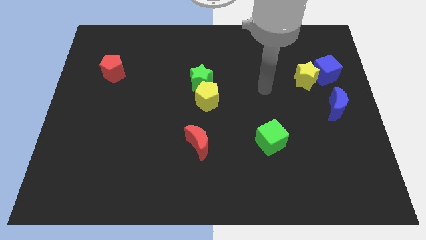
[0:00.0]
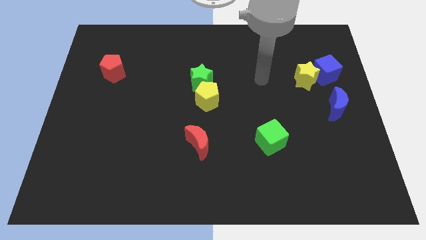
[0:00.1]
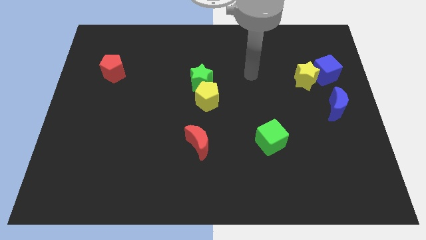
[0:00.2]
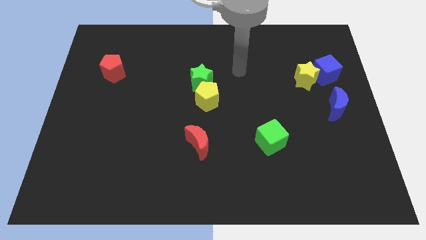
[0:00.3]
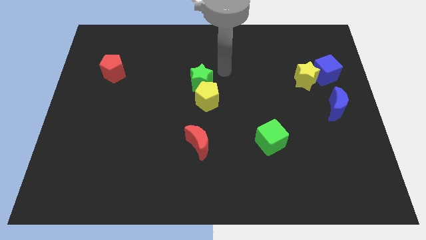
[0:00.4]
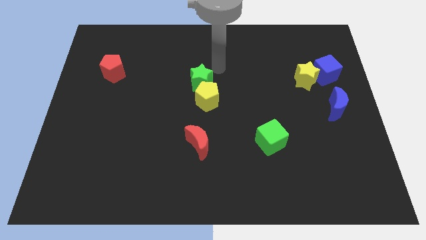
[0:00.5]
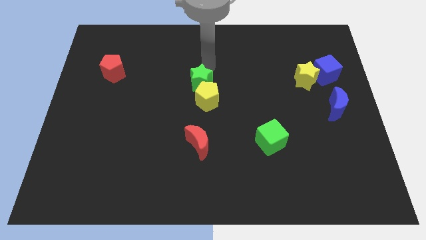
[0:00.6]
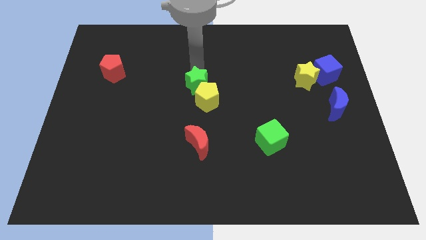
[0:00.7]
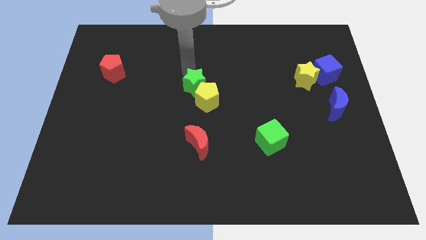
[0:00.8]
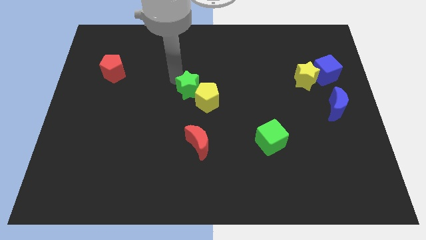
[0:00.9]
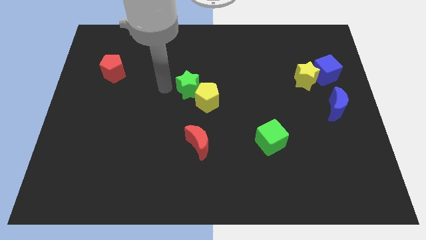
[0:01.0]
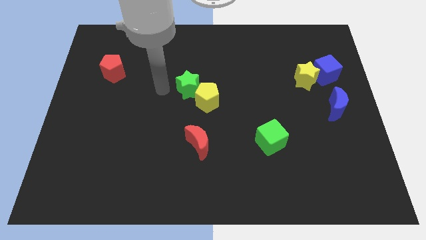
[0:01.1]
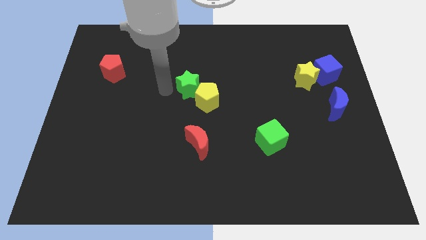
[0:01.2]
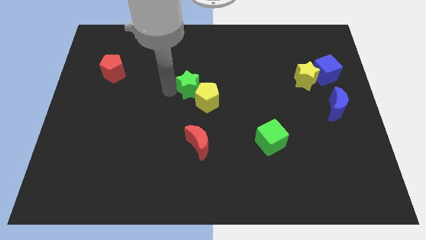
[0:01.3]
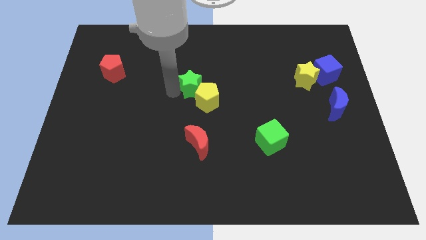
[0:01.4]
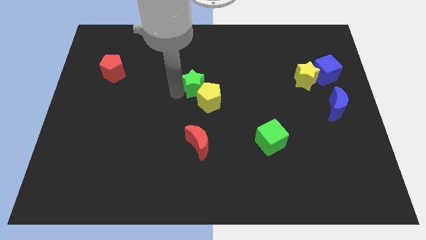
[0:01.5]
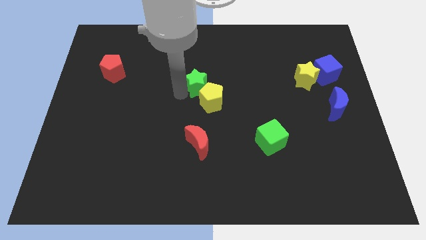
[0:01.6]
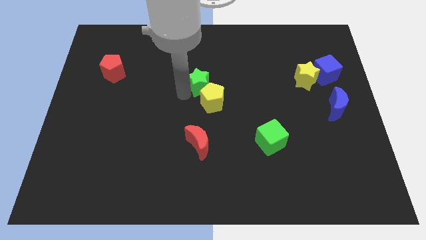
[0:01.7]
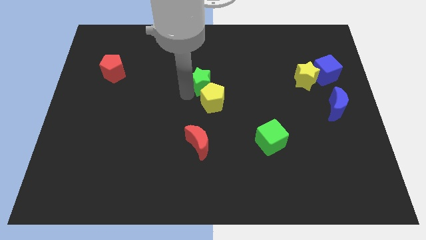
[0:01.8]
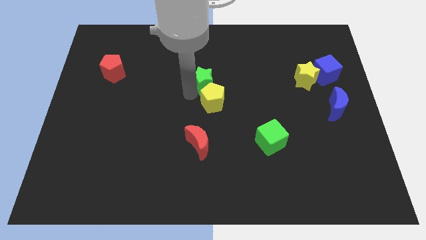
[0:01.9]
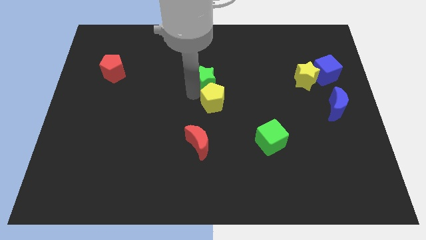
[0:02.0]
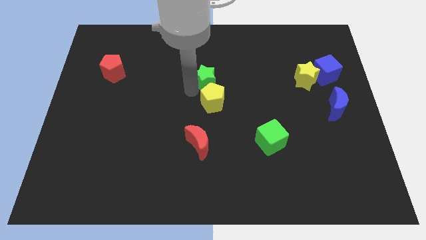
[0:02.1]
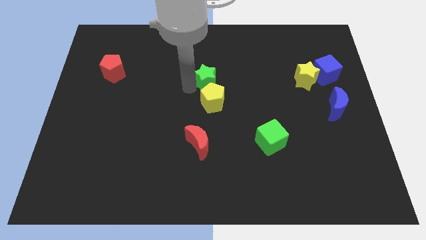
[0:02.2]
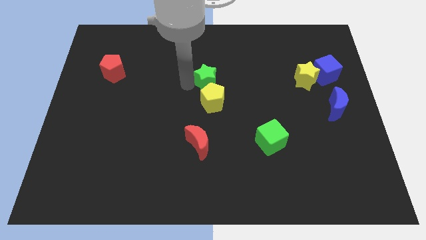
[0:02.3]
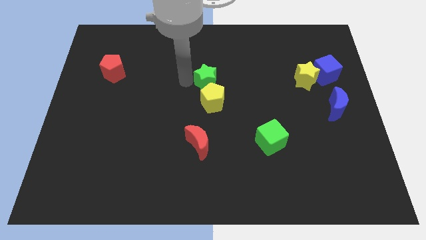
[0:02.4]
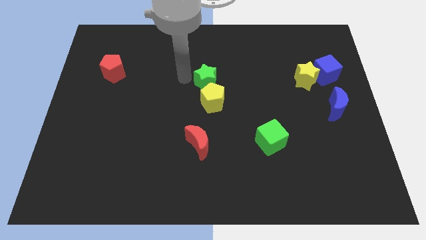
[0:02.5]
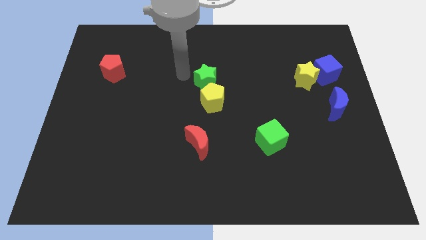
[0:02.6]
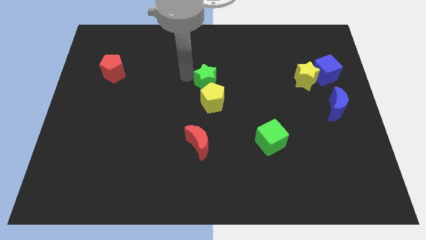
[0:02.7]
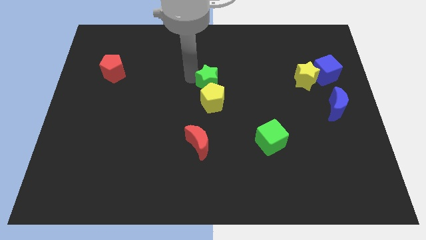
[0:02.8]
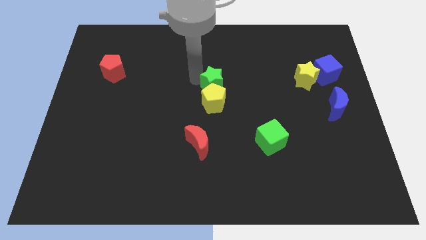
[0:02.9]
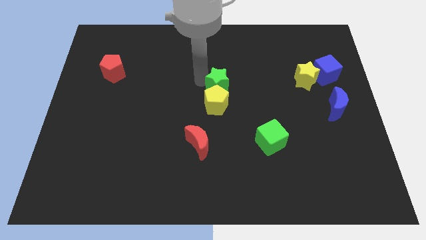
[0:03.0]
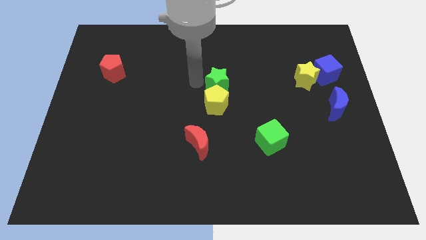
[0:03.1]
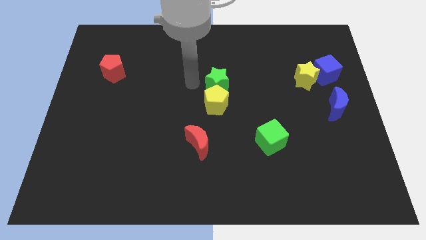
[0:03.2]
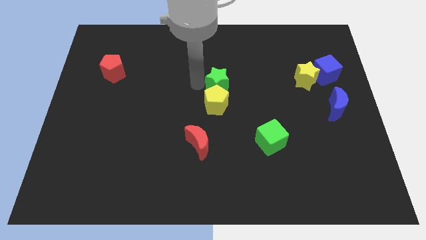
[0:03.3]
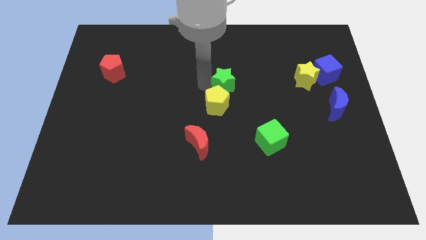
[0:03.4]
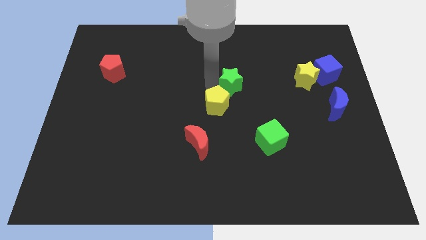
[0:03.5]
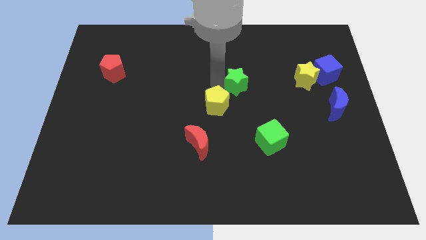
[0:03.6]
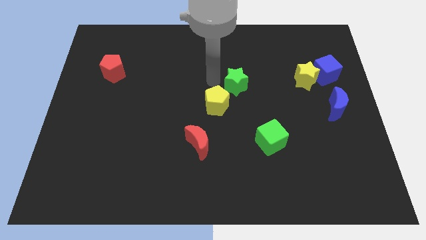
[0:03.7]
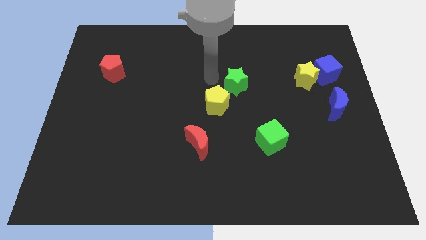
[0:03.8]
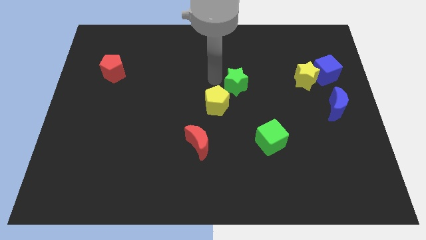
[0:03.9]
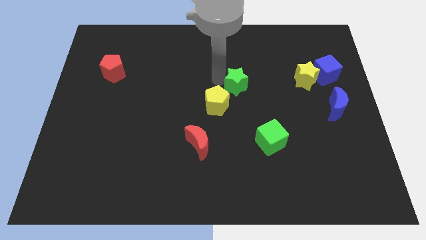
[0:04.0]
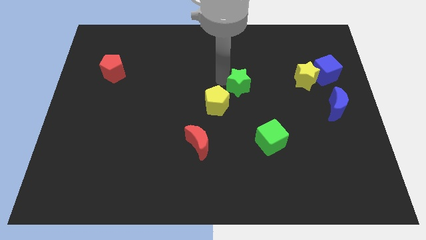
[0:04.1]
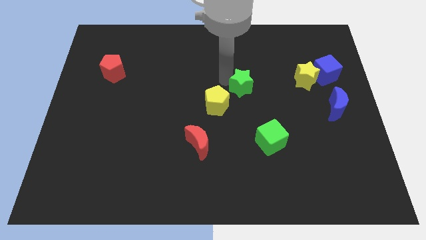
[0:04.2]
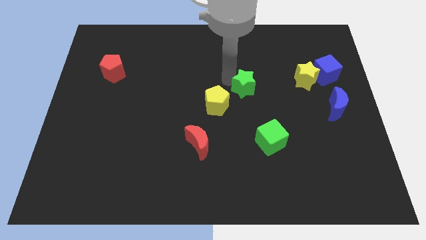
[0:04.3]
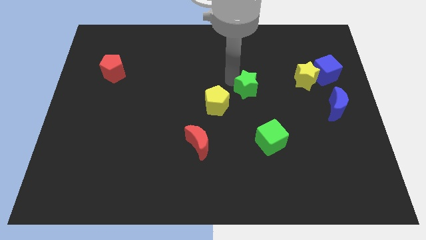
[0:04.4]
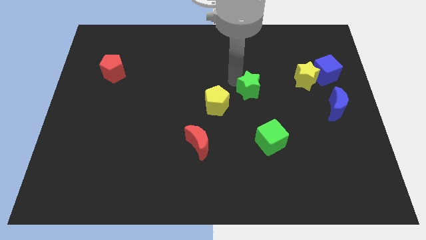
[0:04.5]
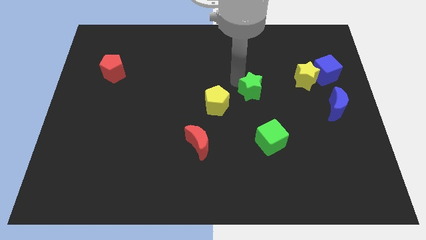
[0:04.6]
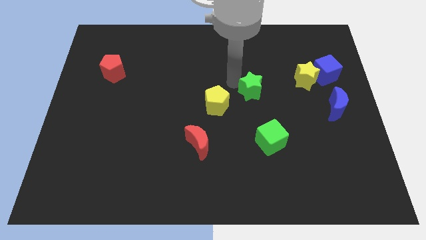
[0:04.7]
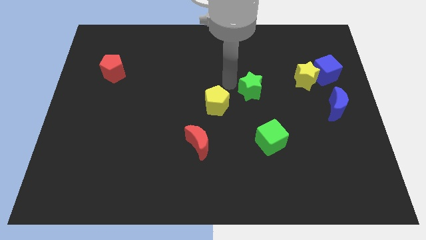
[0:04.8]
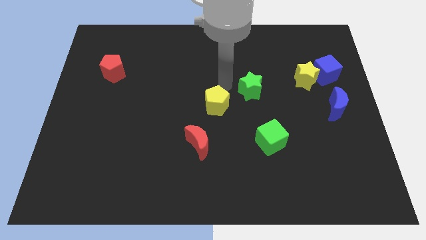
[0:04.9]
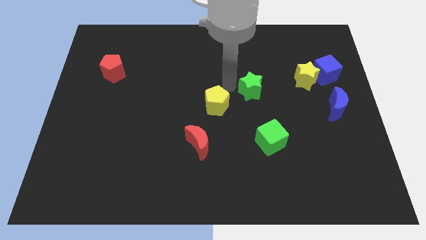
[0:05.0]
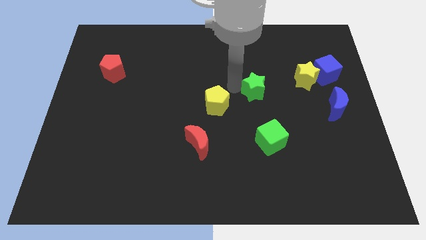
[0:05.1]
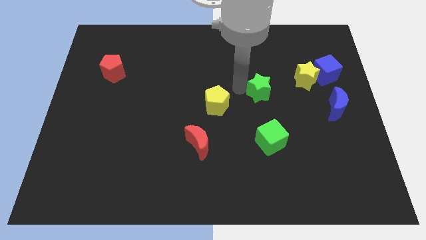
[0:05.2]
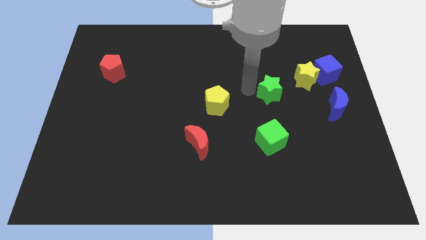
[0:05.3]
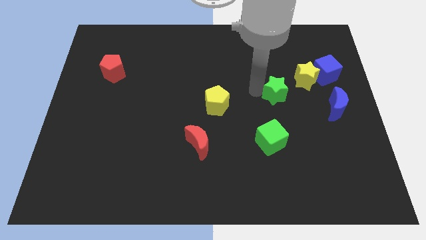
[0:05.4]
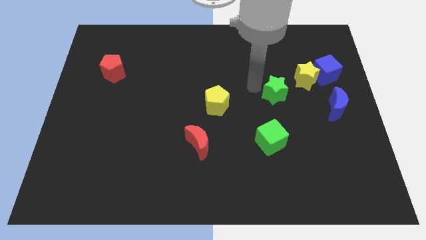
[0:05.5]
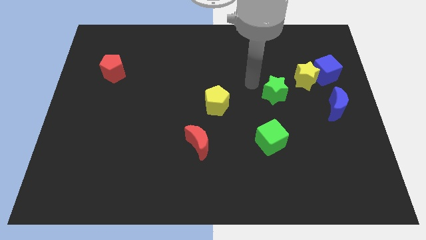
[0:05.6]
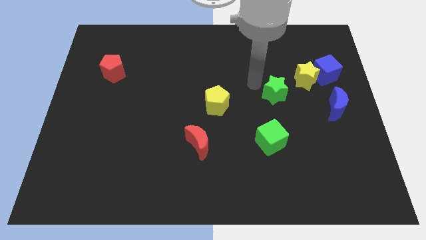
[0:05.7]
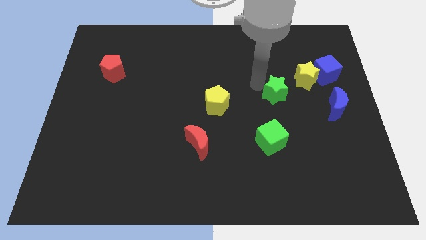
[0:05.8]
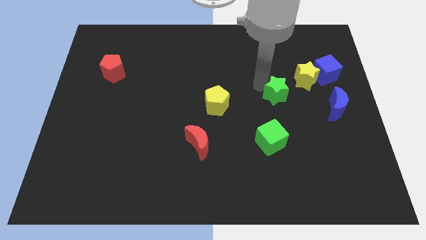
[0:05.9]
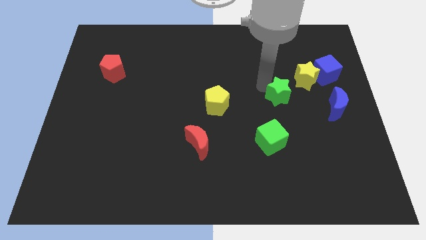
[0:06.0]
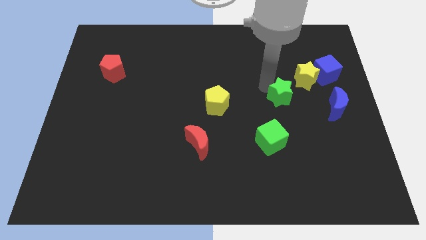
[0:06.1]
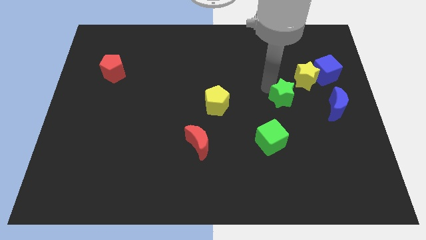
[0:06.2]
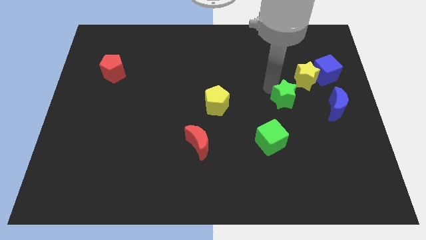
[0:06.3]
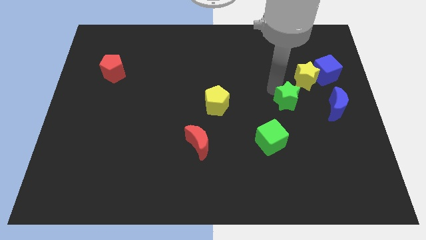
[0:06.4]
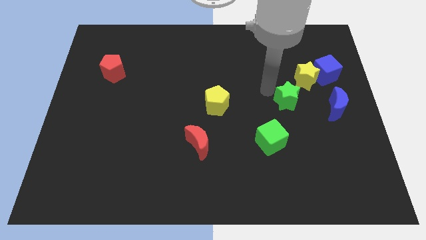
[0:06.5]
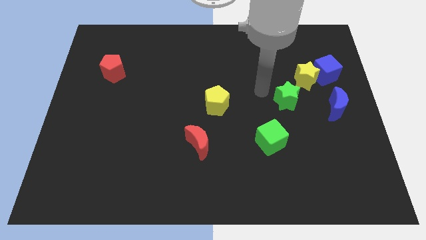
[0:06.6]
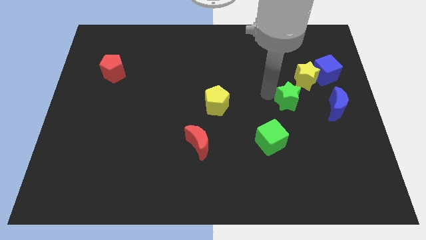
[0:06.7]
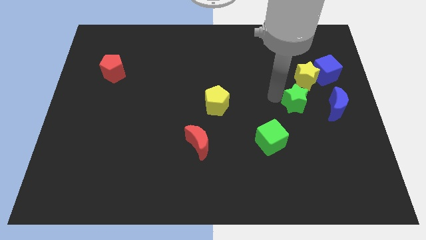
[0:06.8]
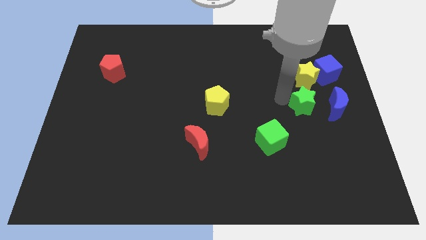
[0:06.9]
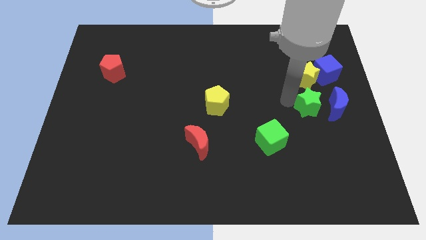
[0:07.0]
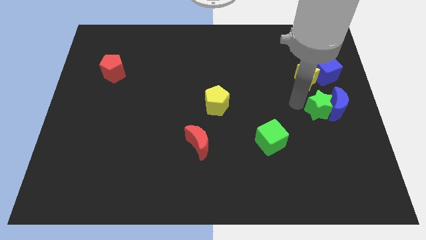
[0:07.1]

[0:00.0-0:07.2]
move the green star to the bottom side of the blue cube
